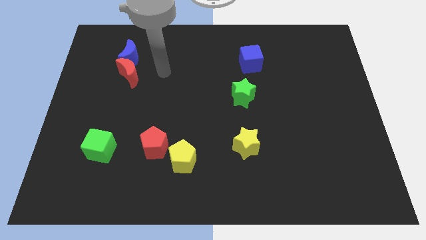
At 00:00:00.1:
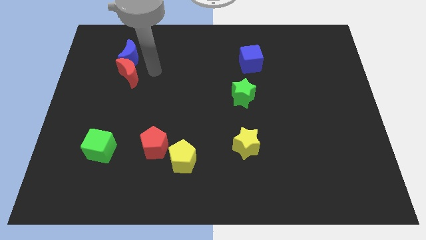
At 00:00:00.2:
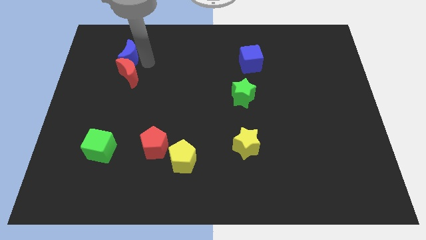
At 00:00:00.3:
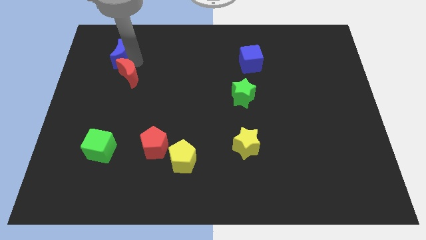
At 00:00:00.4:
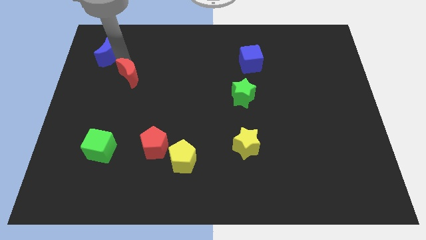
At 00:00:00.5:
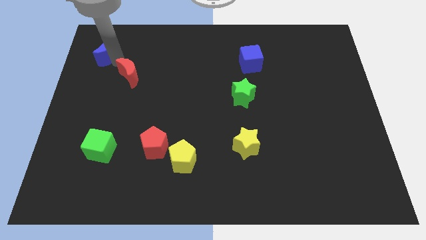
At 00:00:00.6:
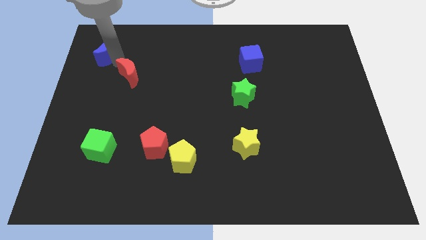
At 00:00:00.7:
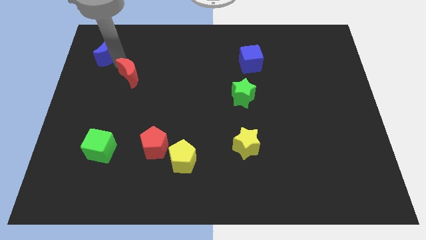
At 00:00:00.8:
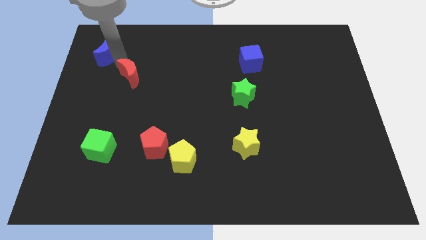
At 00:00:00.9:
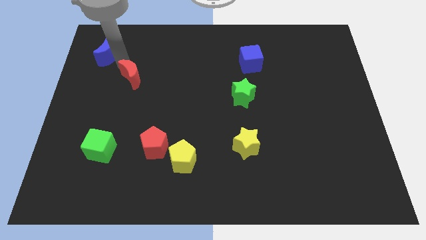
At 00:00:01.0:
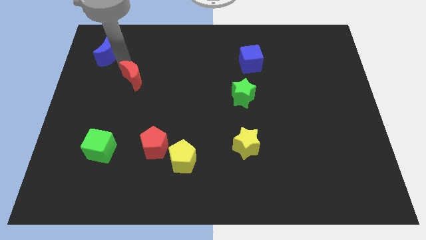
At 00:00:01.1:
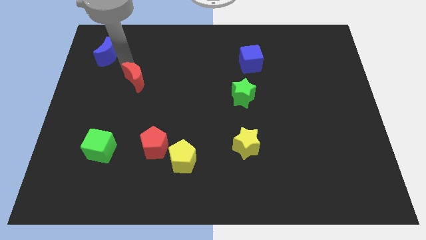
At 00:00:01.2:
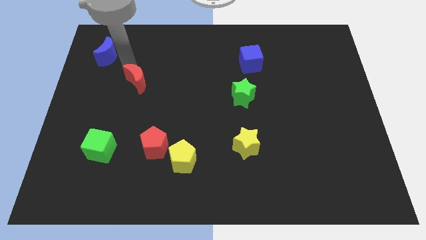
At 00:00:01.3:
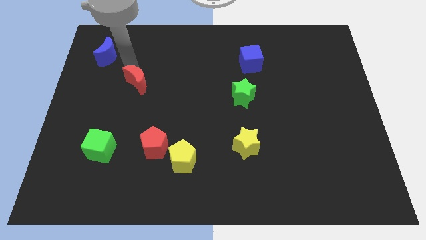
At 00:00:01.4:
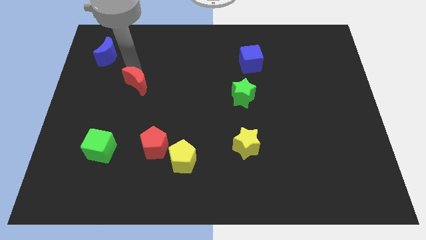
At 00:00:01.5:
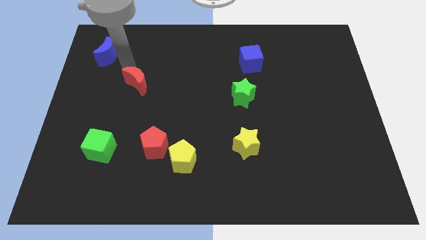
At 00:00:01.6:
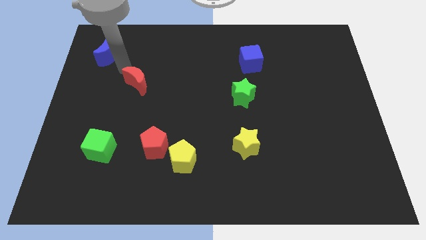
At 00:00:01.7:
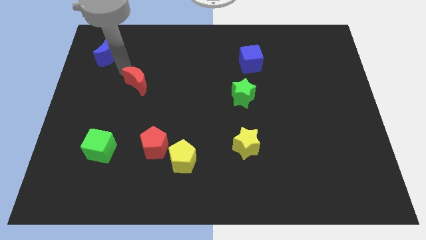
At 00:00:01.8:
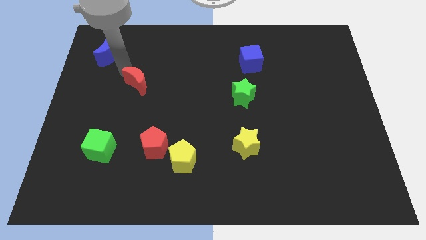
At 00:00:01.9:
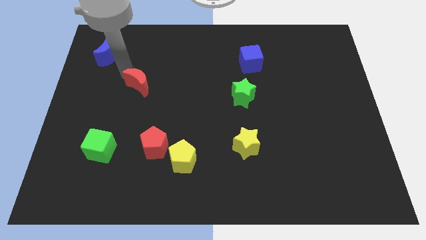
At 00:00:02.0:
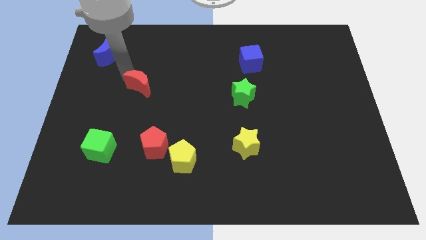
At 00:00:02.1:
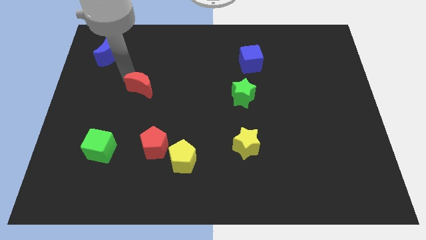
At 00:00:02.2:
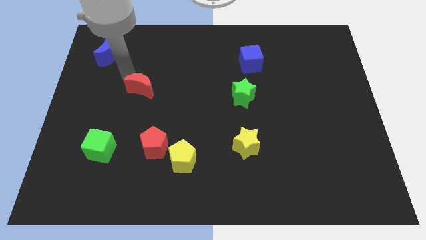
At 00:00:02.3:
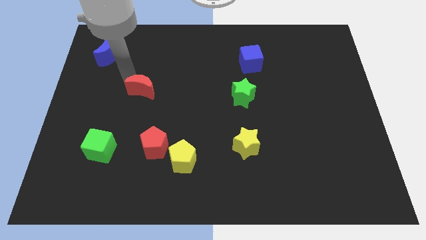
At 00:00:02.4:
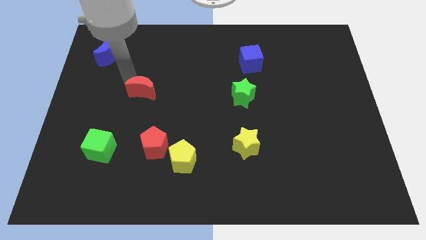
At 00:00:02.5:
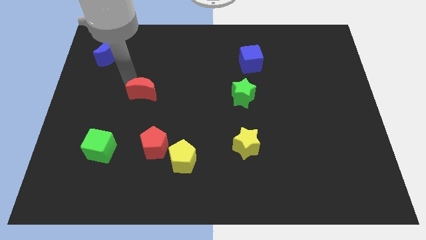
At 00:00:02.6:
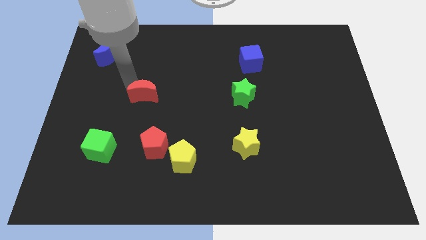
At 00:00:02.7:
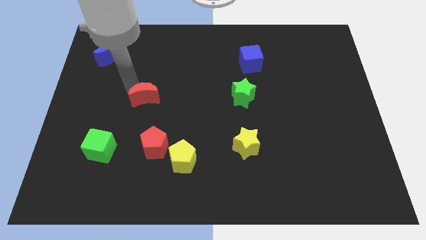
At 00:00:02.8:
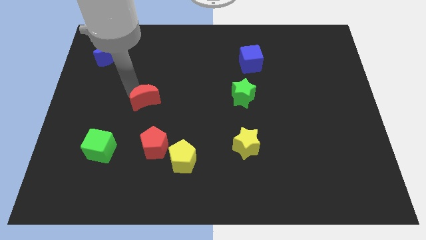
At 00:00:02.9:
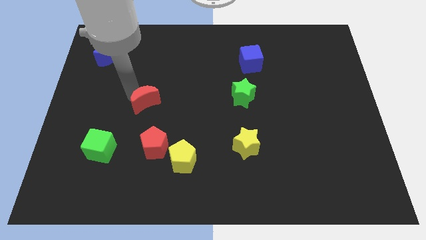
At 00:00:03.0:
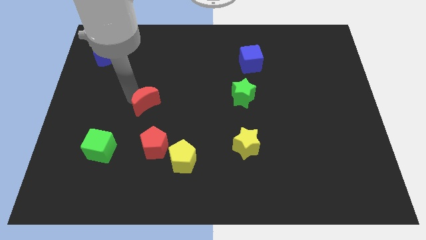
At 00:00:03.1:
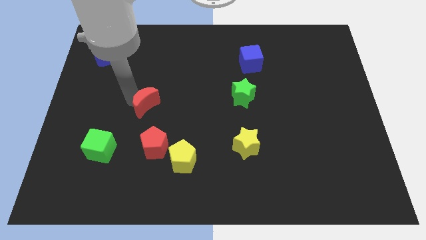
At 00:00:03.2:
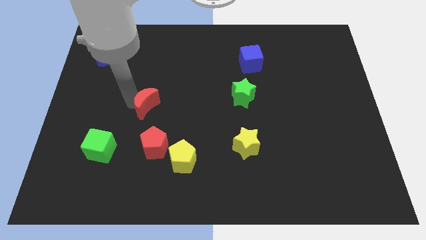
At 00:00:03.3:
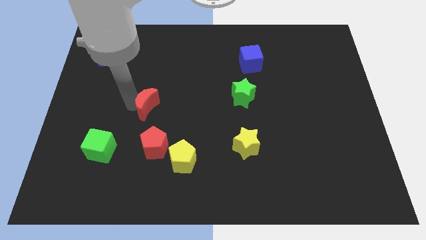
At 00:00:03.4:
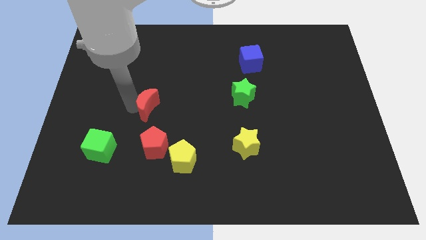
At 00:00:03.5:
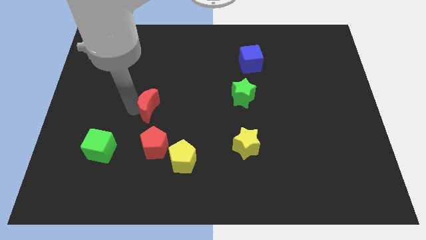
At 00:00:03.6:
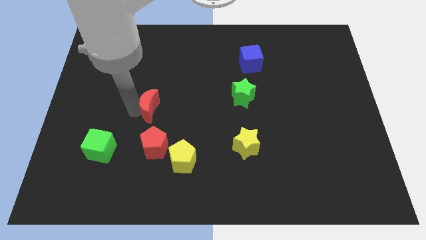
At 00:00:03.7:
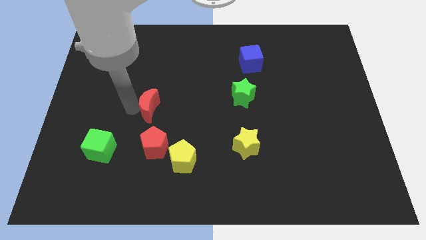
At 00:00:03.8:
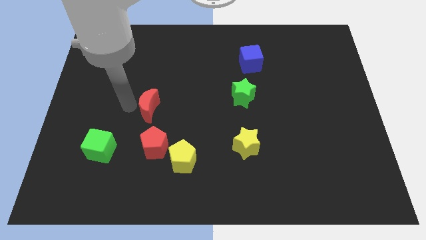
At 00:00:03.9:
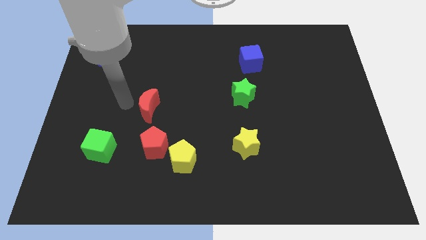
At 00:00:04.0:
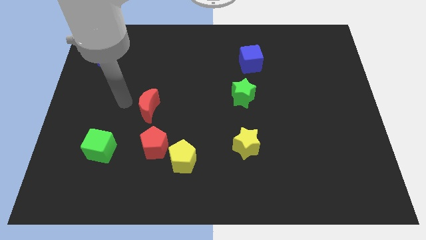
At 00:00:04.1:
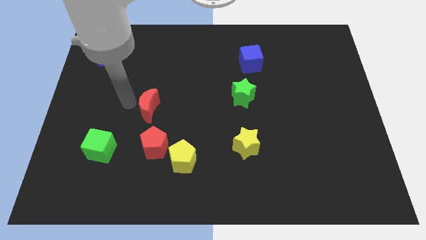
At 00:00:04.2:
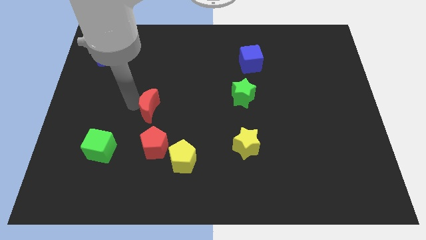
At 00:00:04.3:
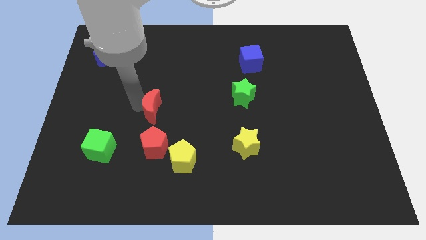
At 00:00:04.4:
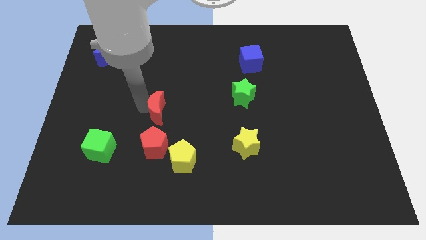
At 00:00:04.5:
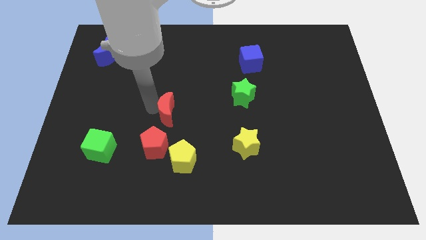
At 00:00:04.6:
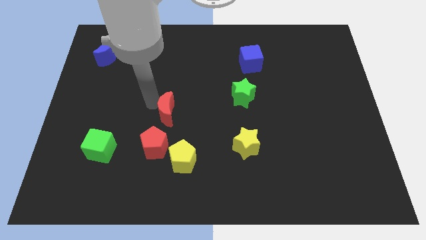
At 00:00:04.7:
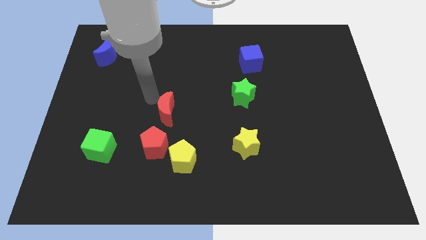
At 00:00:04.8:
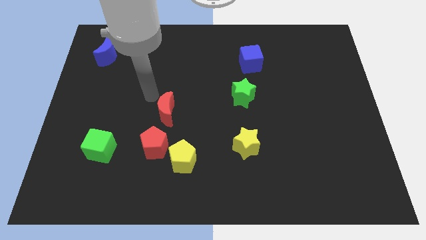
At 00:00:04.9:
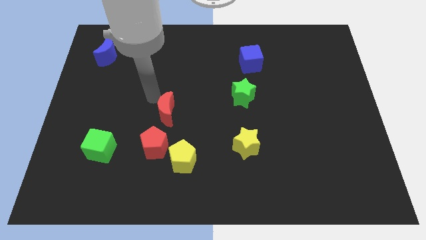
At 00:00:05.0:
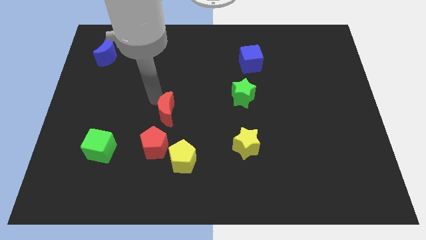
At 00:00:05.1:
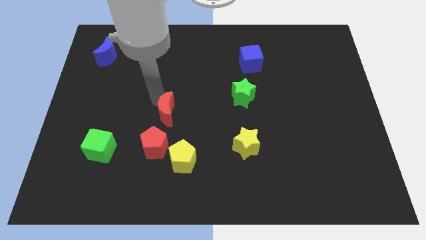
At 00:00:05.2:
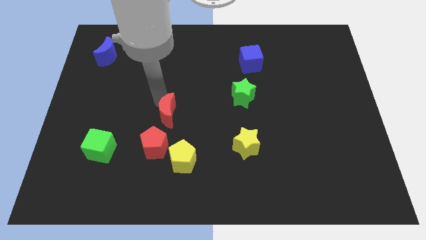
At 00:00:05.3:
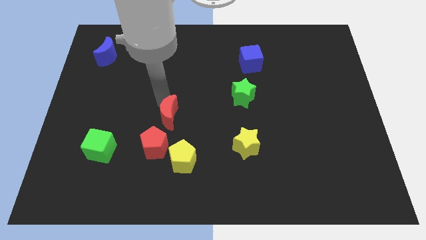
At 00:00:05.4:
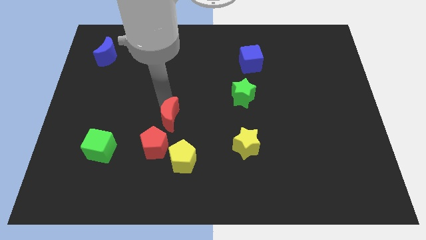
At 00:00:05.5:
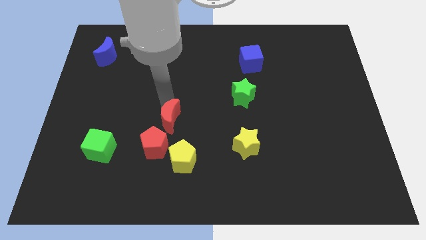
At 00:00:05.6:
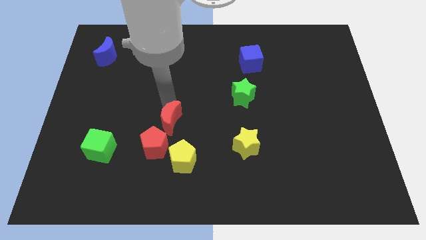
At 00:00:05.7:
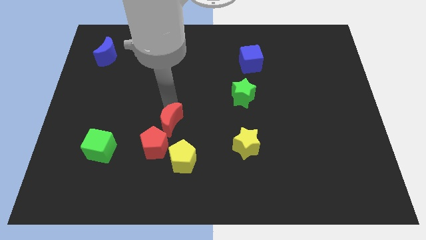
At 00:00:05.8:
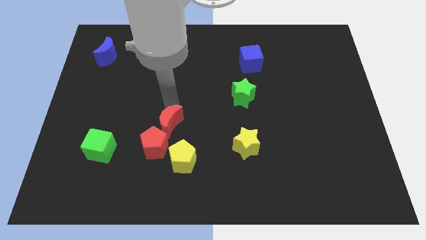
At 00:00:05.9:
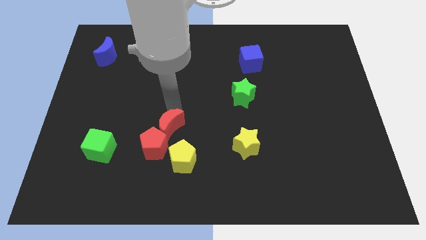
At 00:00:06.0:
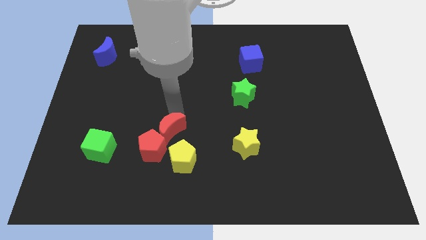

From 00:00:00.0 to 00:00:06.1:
move the red moon downwards and to the right

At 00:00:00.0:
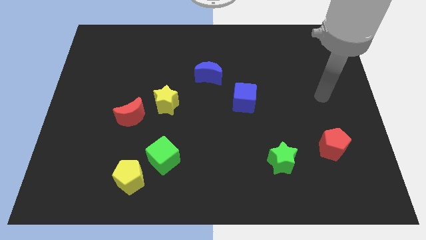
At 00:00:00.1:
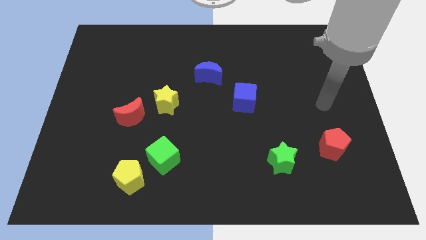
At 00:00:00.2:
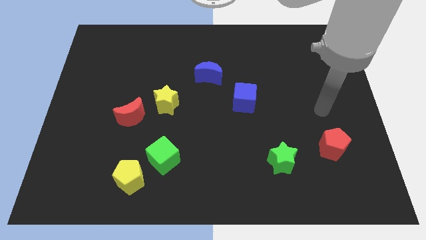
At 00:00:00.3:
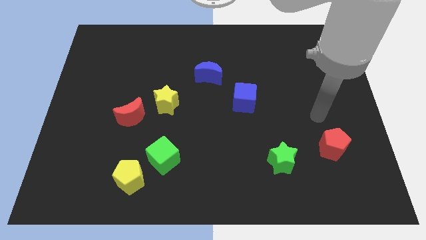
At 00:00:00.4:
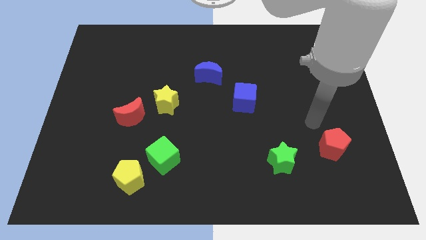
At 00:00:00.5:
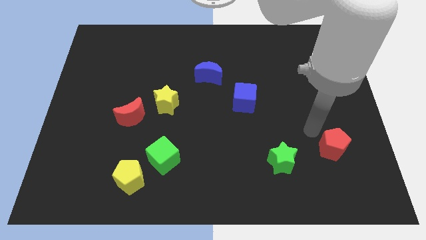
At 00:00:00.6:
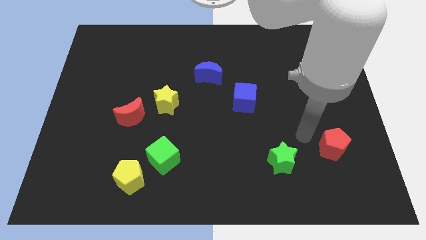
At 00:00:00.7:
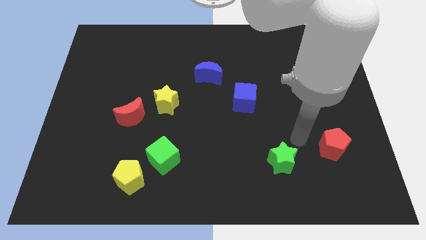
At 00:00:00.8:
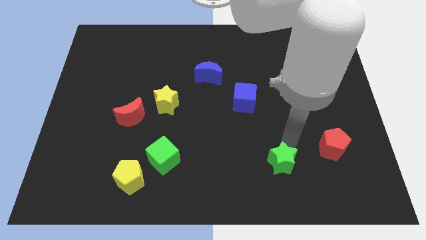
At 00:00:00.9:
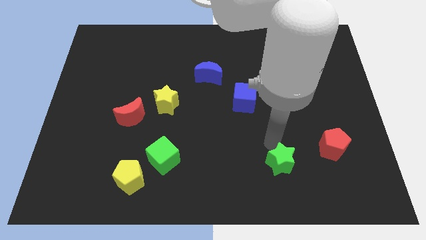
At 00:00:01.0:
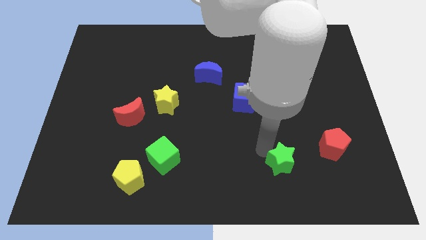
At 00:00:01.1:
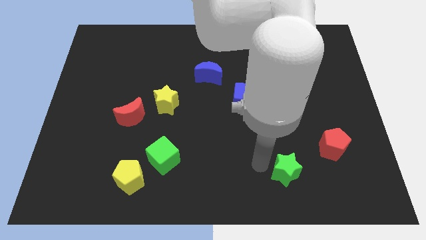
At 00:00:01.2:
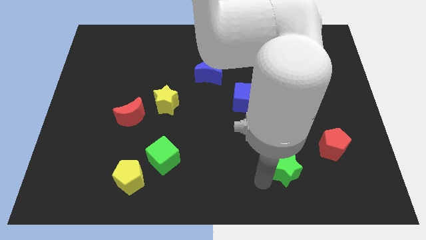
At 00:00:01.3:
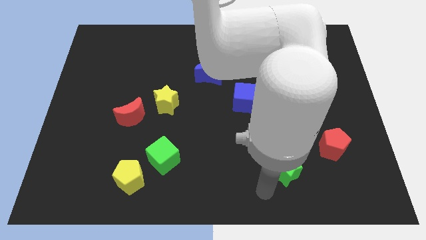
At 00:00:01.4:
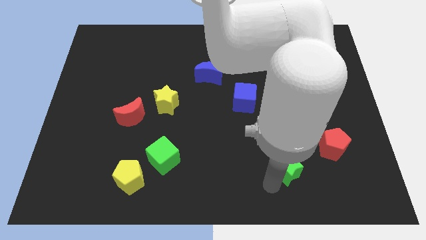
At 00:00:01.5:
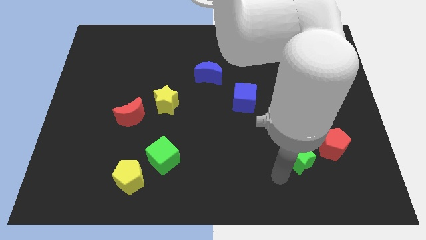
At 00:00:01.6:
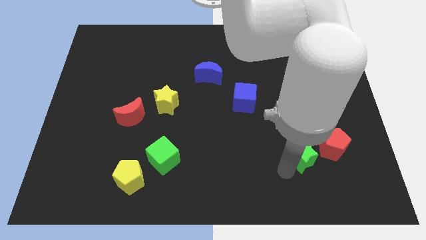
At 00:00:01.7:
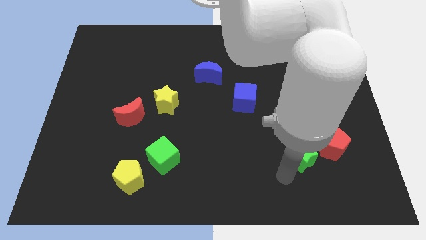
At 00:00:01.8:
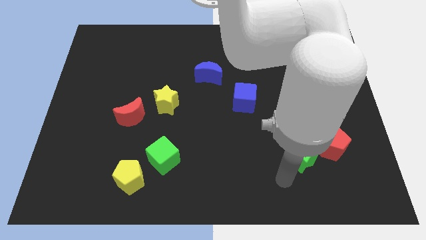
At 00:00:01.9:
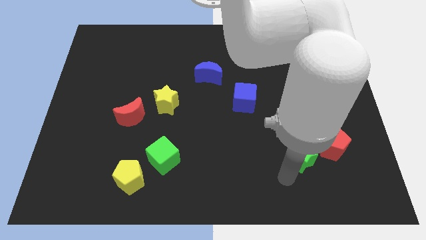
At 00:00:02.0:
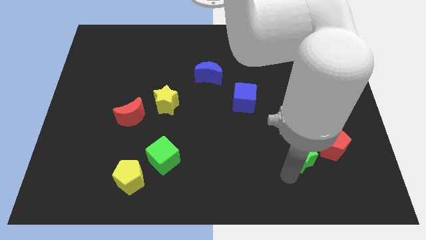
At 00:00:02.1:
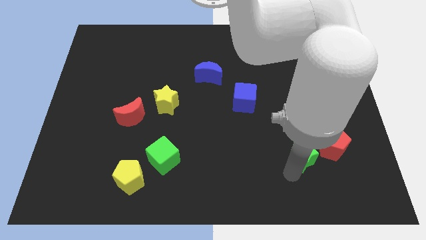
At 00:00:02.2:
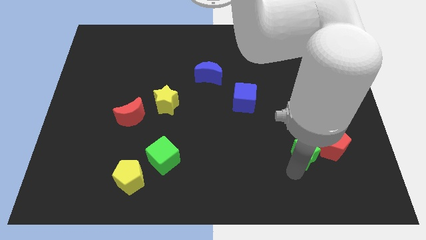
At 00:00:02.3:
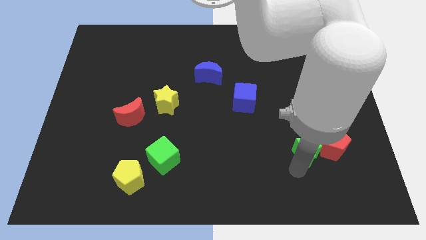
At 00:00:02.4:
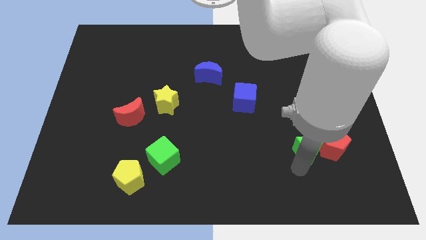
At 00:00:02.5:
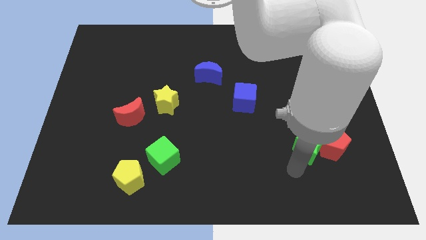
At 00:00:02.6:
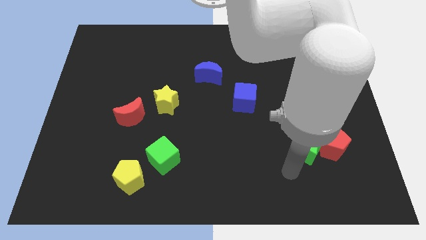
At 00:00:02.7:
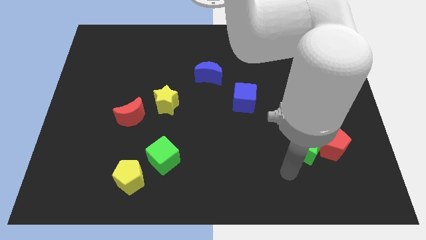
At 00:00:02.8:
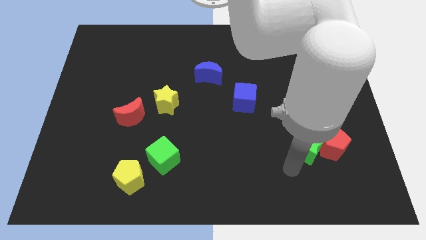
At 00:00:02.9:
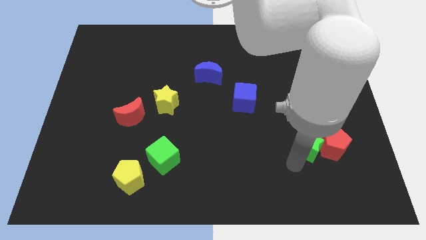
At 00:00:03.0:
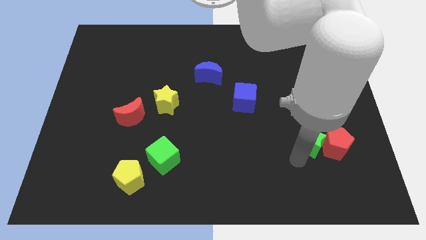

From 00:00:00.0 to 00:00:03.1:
slightly push the green star up and then right
